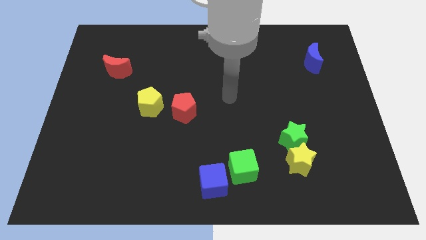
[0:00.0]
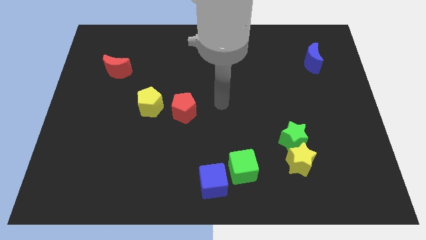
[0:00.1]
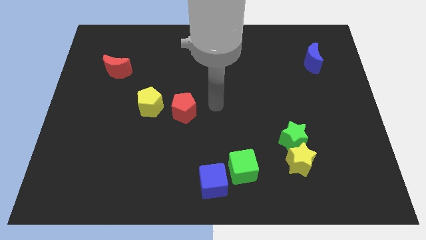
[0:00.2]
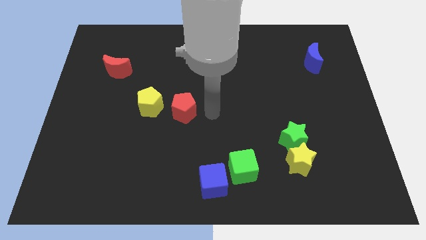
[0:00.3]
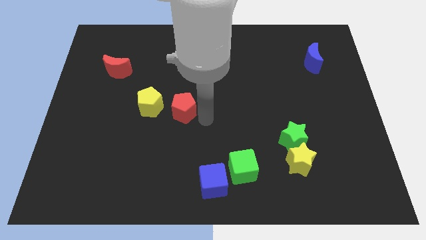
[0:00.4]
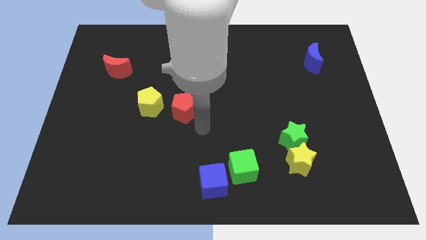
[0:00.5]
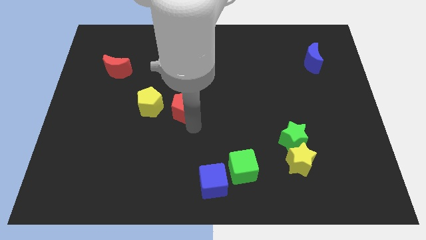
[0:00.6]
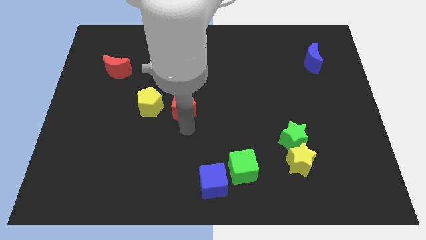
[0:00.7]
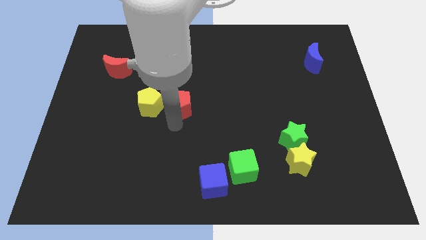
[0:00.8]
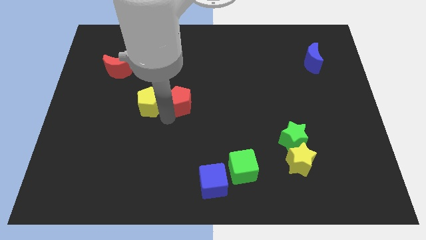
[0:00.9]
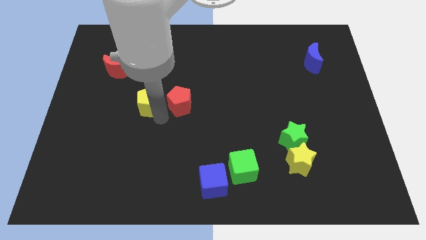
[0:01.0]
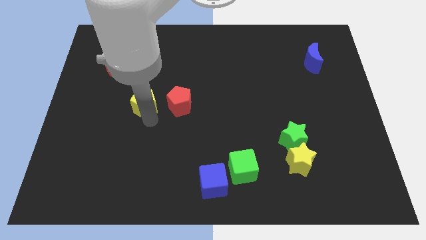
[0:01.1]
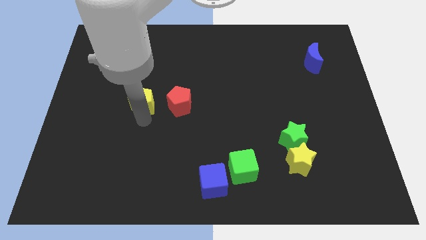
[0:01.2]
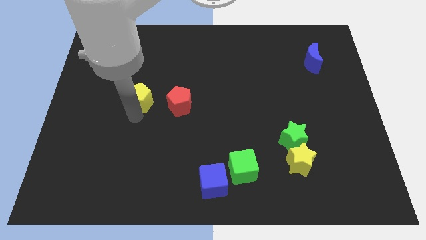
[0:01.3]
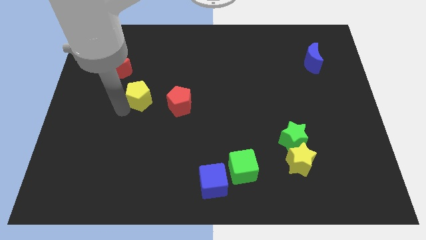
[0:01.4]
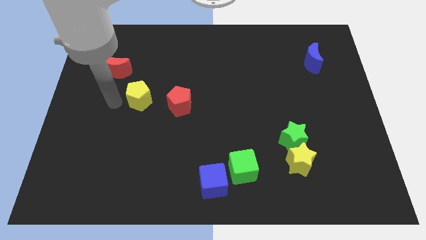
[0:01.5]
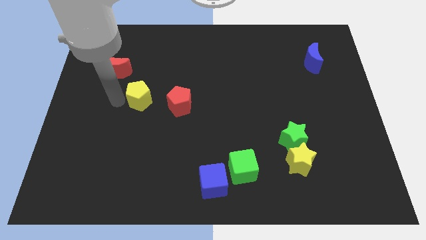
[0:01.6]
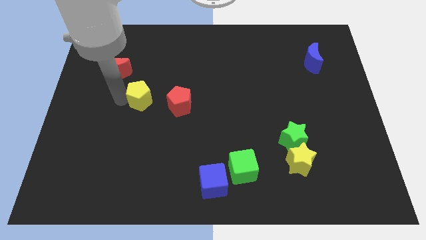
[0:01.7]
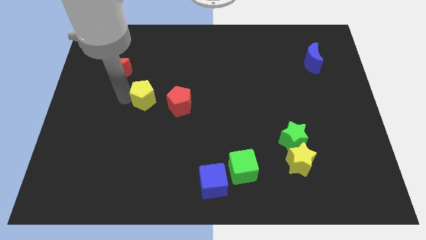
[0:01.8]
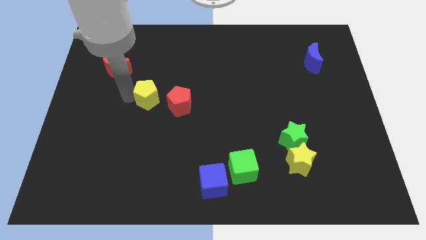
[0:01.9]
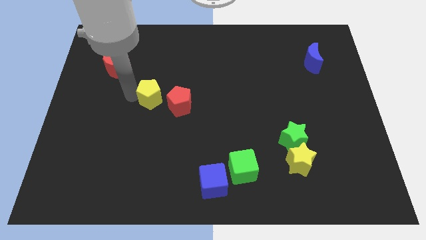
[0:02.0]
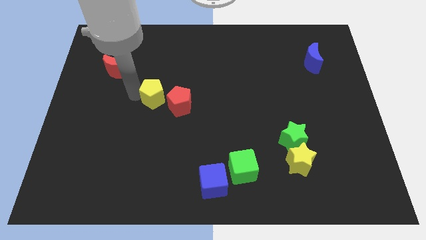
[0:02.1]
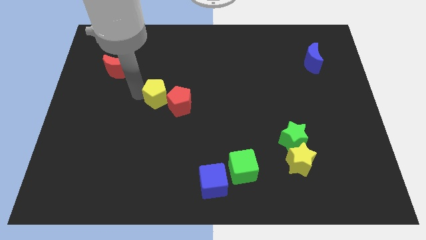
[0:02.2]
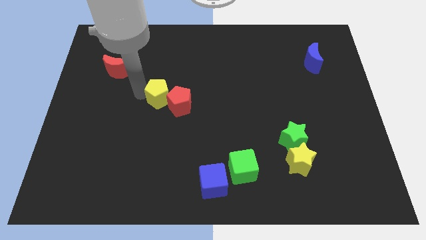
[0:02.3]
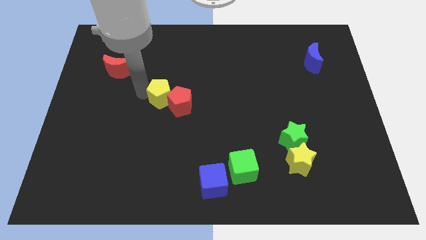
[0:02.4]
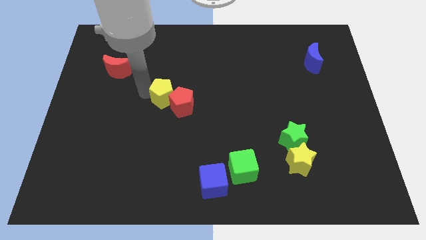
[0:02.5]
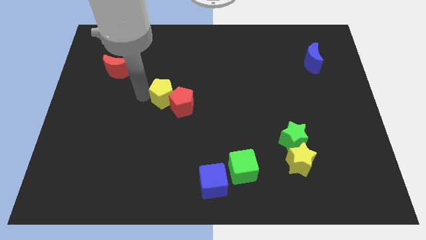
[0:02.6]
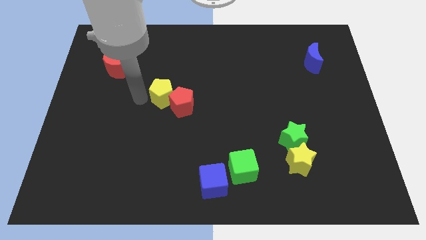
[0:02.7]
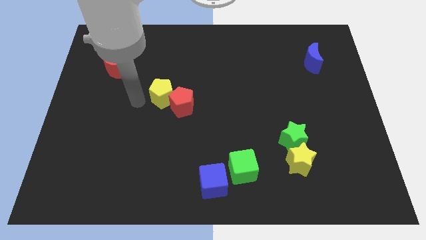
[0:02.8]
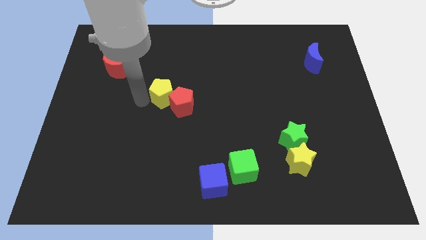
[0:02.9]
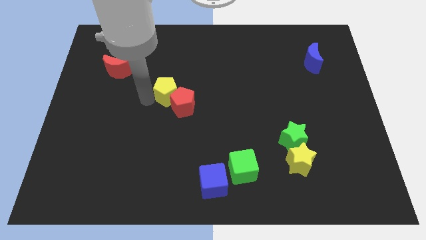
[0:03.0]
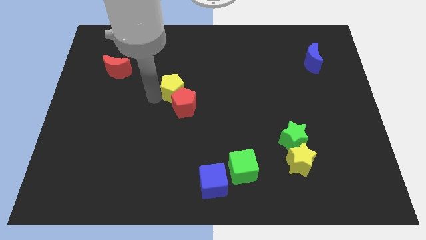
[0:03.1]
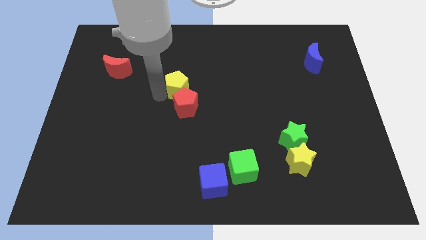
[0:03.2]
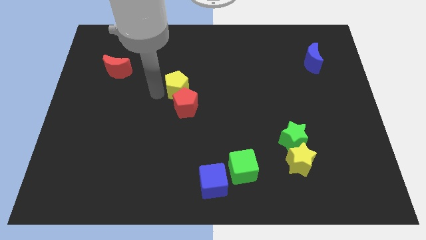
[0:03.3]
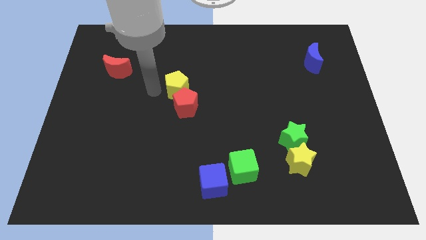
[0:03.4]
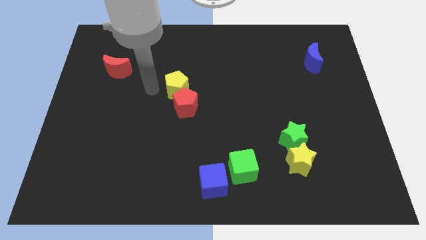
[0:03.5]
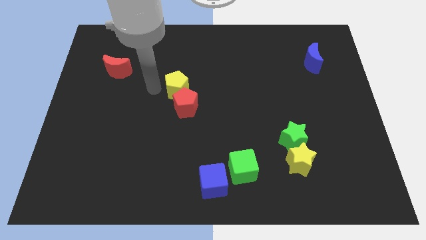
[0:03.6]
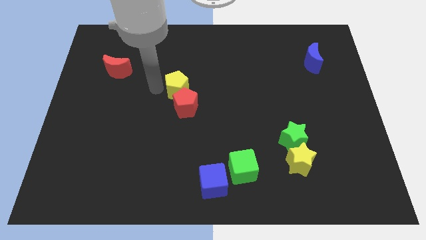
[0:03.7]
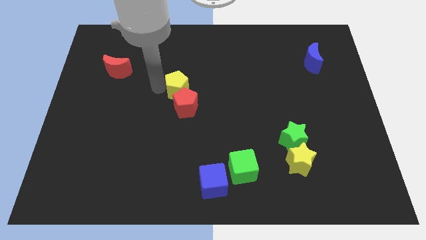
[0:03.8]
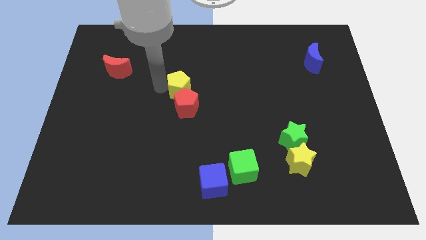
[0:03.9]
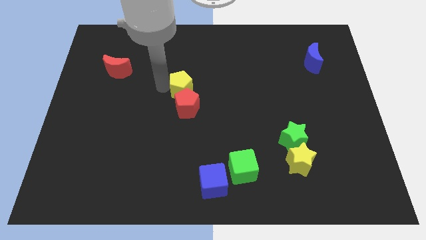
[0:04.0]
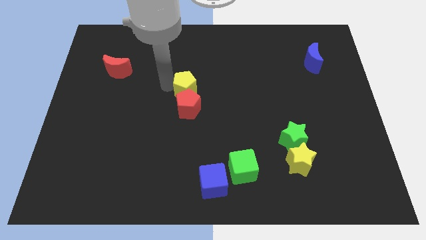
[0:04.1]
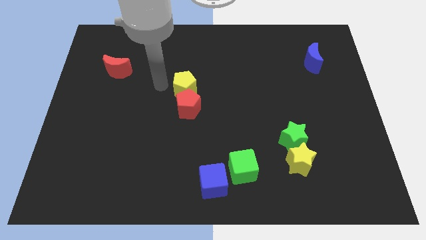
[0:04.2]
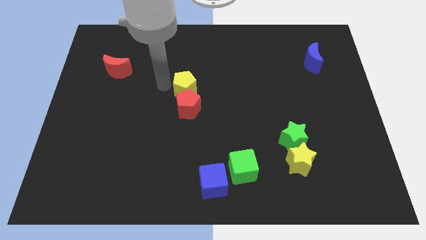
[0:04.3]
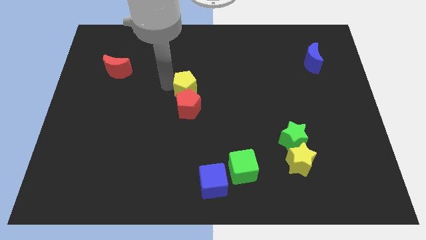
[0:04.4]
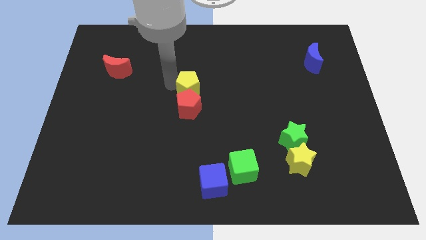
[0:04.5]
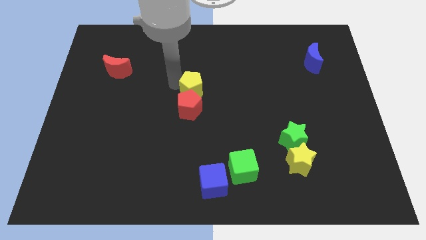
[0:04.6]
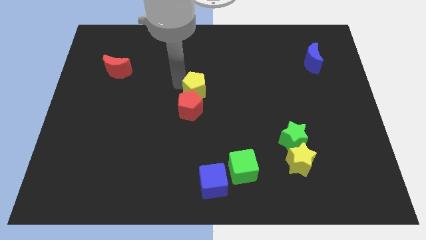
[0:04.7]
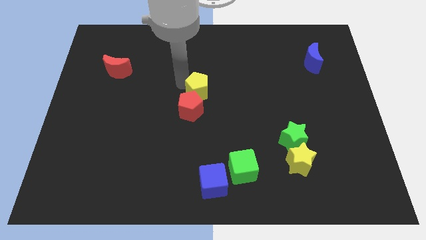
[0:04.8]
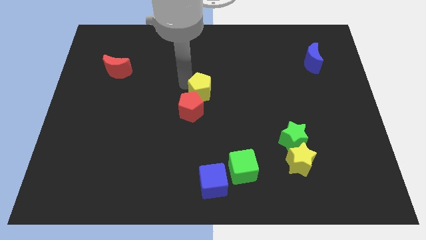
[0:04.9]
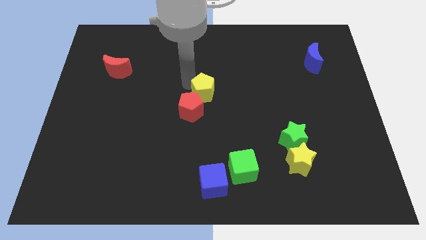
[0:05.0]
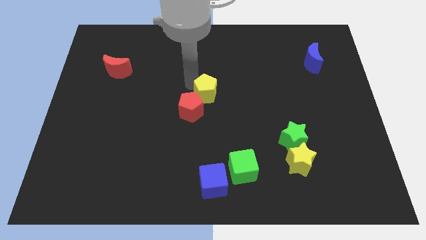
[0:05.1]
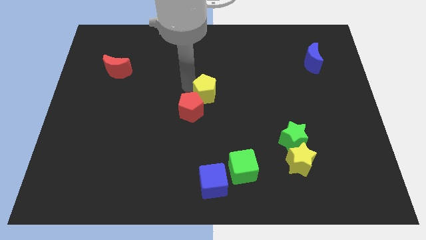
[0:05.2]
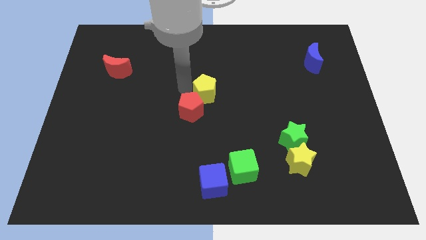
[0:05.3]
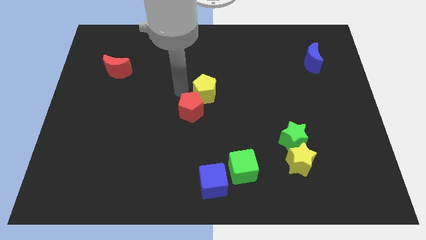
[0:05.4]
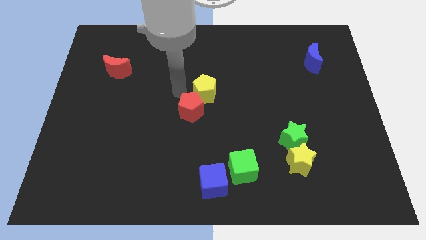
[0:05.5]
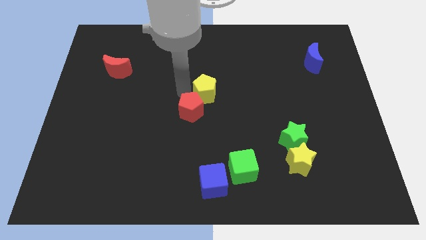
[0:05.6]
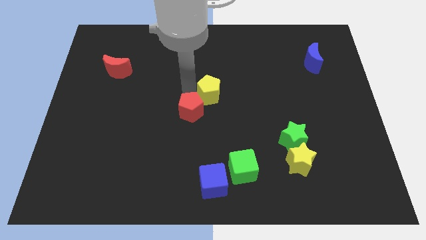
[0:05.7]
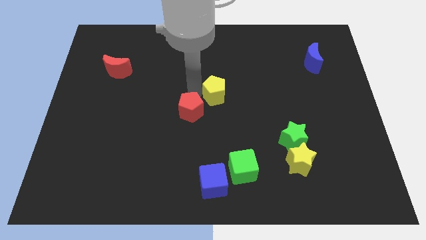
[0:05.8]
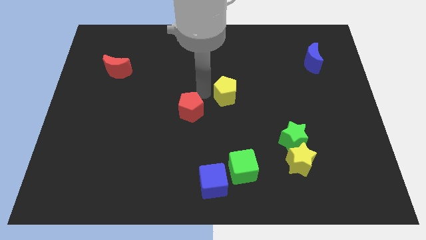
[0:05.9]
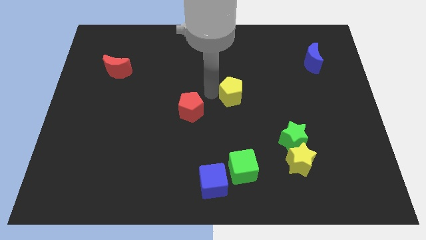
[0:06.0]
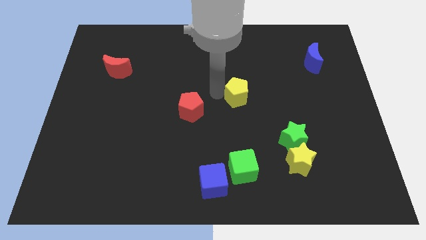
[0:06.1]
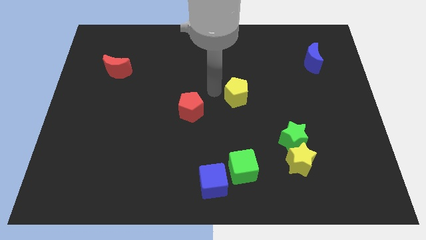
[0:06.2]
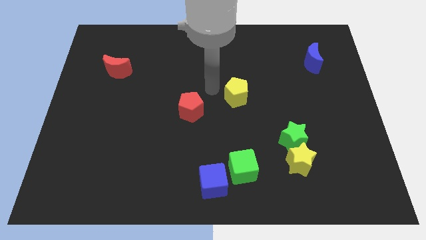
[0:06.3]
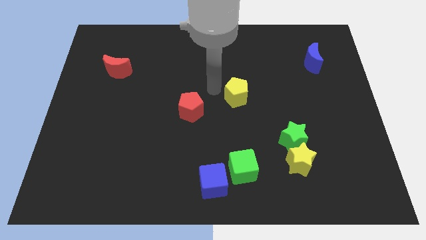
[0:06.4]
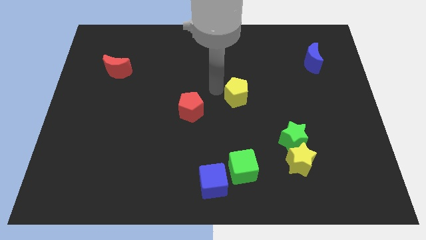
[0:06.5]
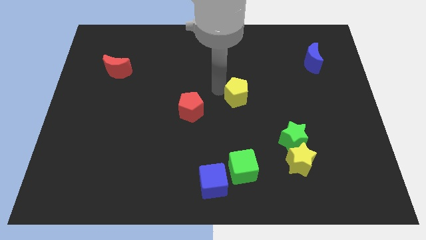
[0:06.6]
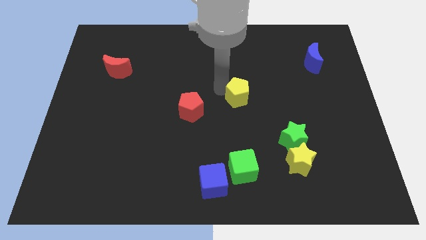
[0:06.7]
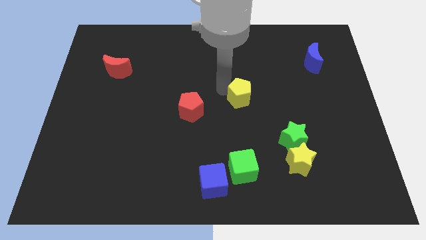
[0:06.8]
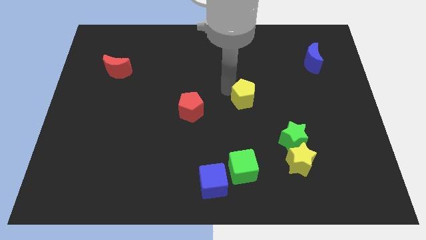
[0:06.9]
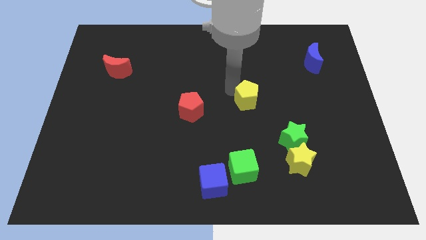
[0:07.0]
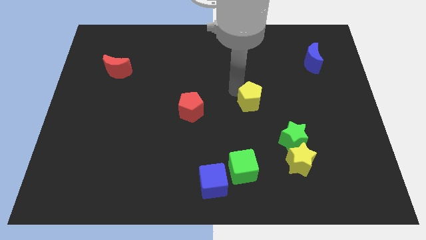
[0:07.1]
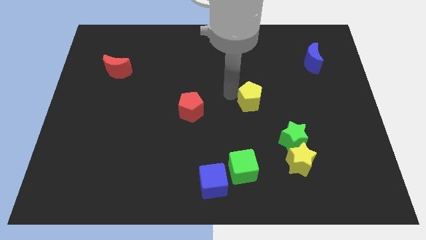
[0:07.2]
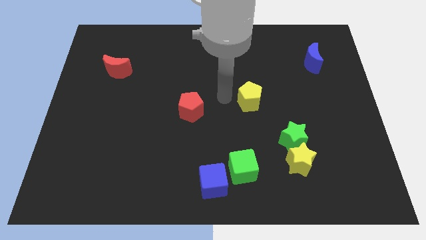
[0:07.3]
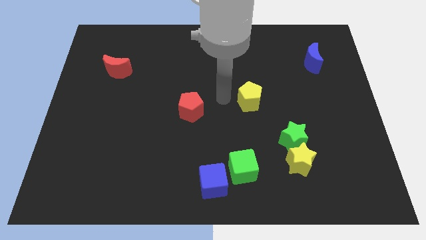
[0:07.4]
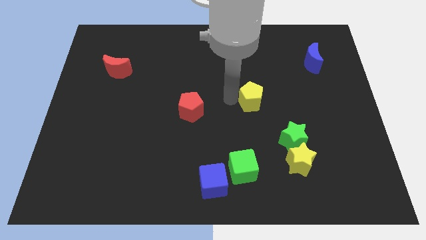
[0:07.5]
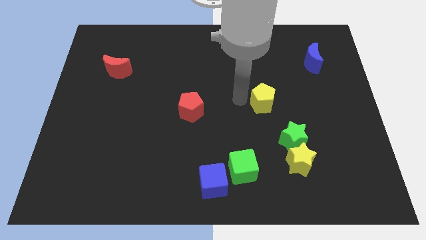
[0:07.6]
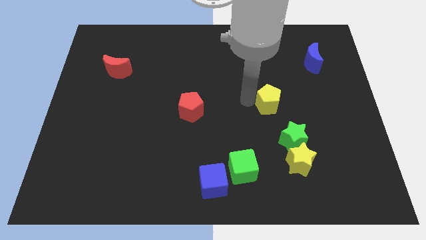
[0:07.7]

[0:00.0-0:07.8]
put the yellow pentagon above the green star
